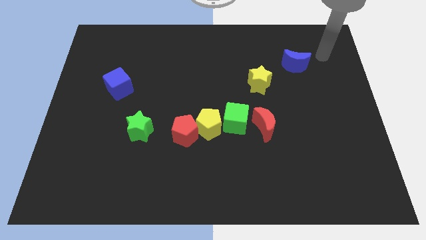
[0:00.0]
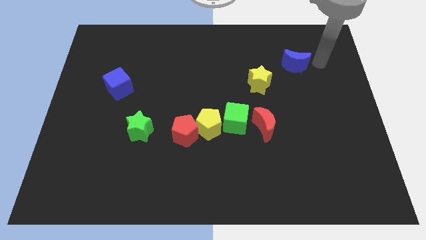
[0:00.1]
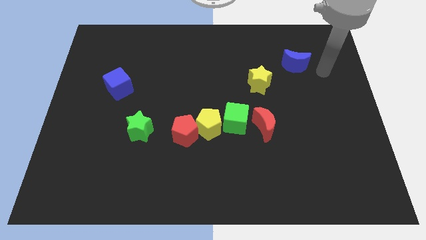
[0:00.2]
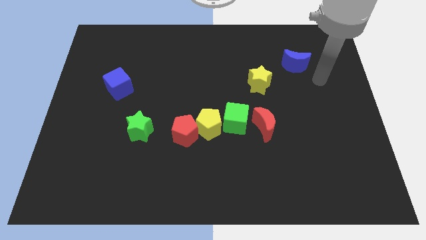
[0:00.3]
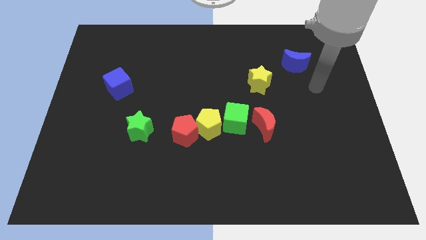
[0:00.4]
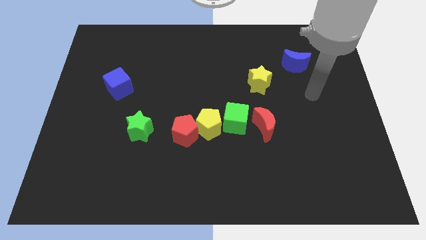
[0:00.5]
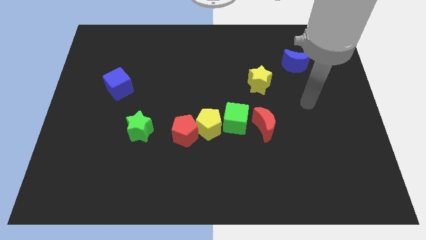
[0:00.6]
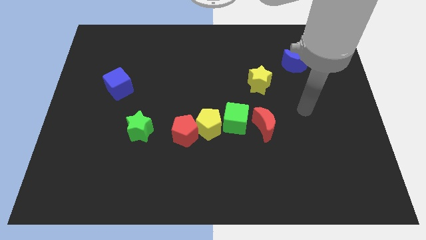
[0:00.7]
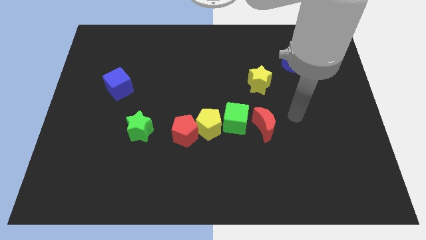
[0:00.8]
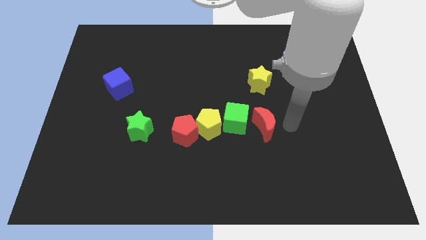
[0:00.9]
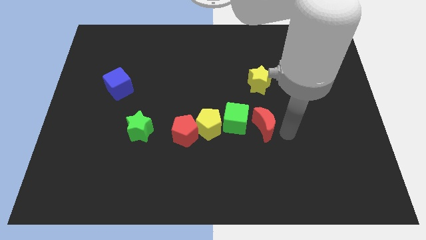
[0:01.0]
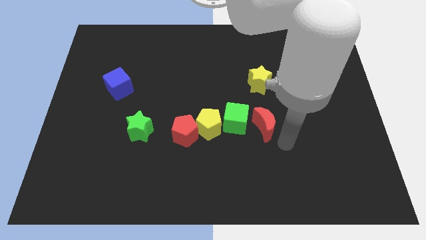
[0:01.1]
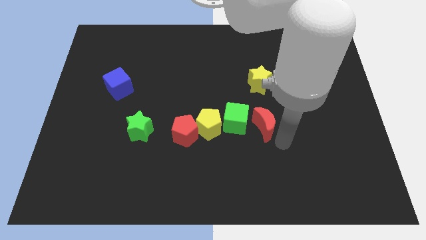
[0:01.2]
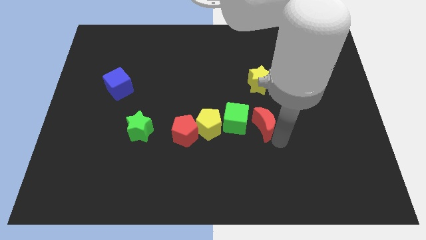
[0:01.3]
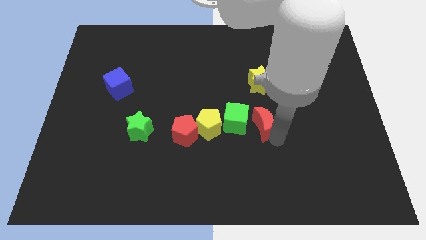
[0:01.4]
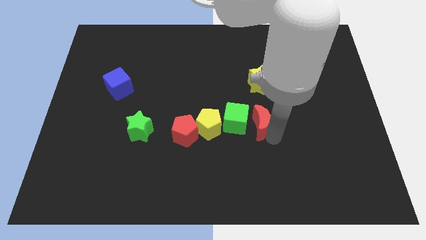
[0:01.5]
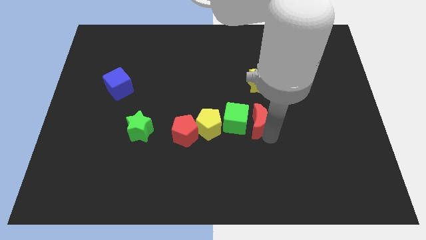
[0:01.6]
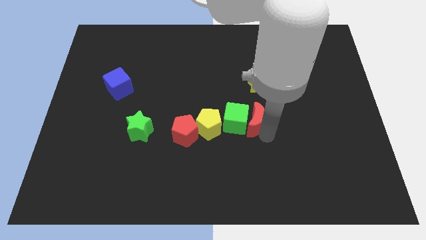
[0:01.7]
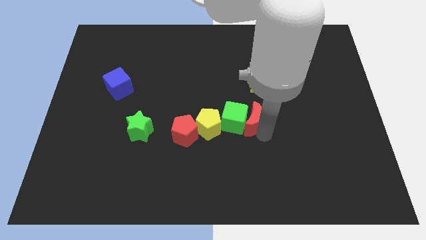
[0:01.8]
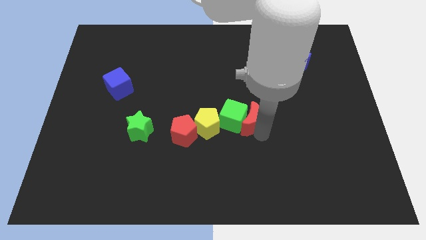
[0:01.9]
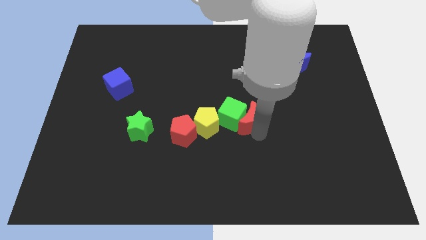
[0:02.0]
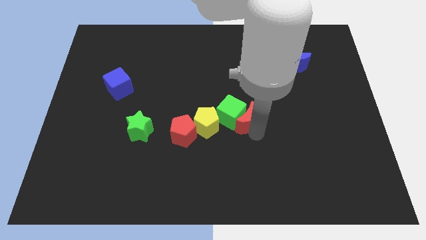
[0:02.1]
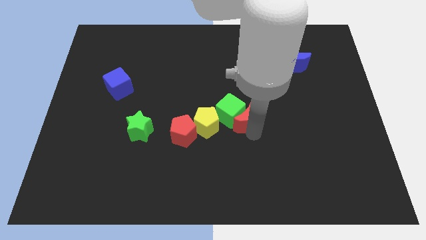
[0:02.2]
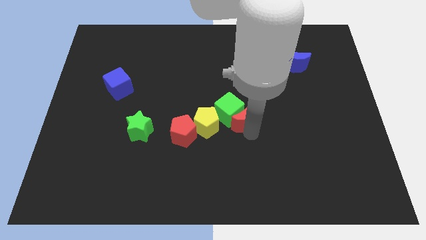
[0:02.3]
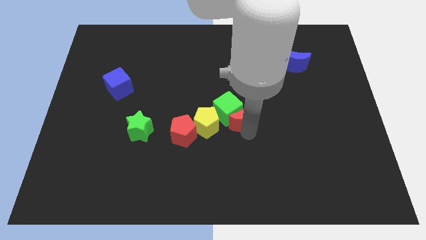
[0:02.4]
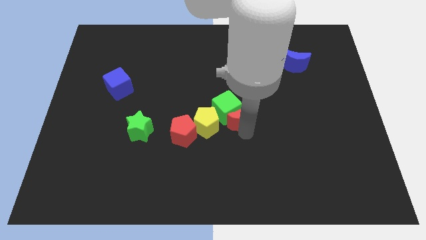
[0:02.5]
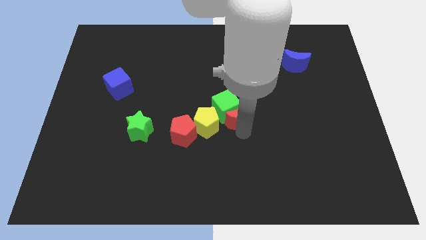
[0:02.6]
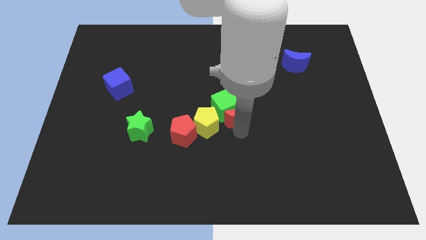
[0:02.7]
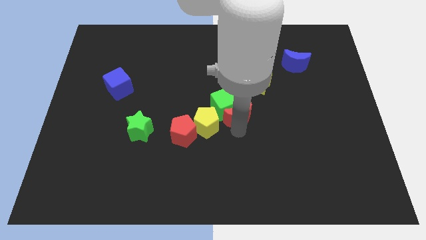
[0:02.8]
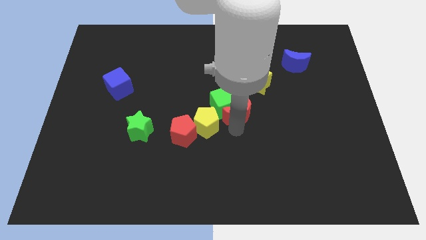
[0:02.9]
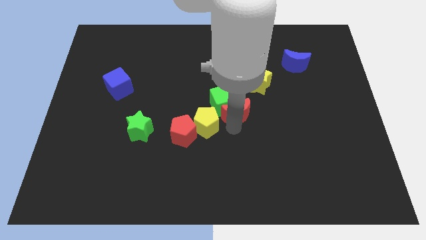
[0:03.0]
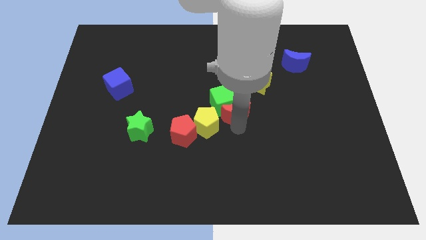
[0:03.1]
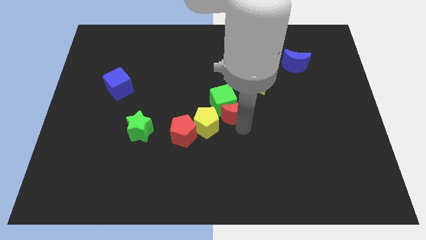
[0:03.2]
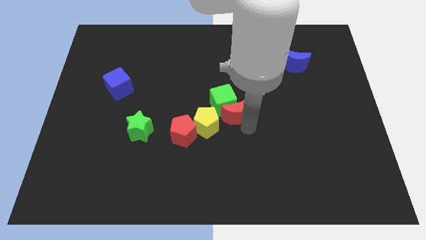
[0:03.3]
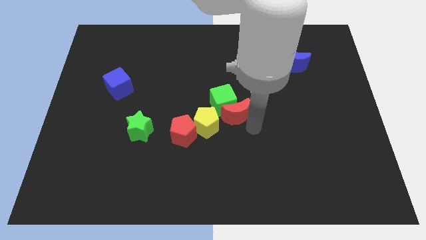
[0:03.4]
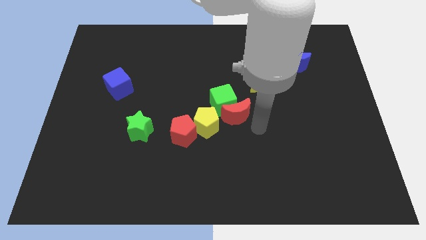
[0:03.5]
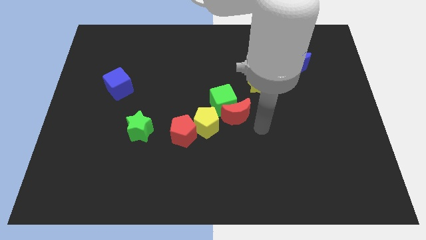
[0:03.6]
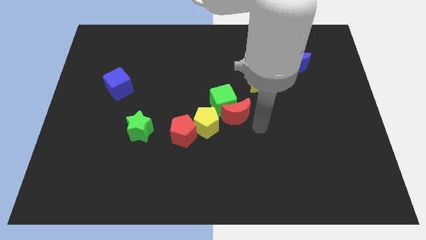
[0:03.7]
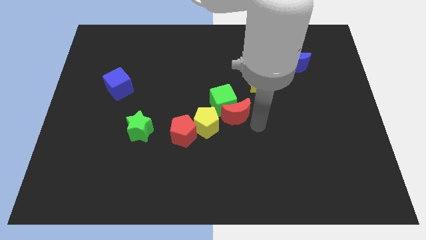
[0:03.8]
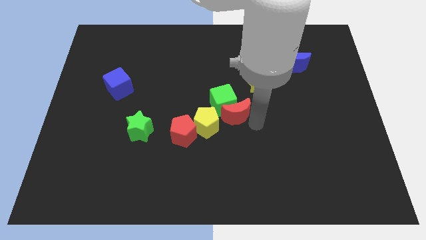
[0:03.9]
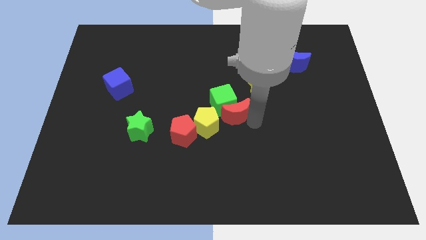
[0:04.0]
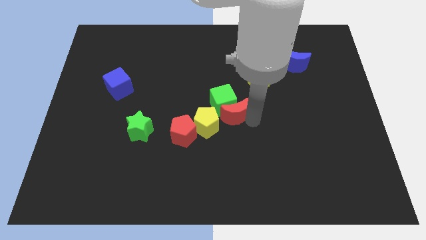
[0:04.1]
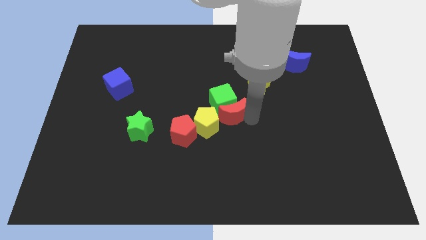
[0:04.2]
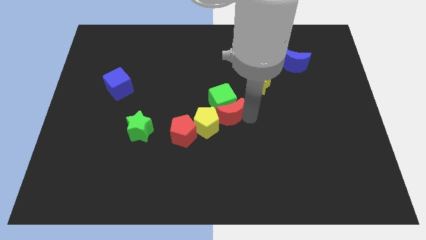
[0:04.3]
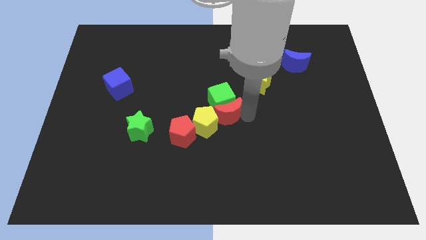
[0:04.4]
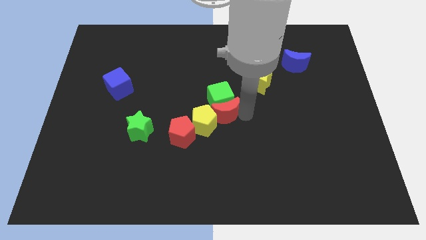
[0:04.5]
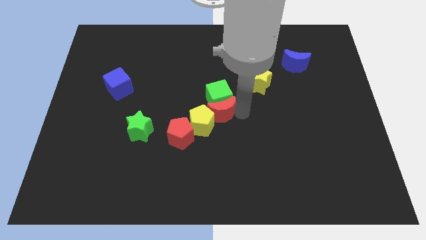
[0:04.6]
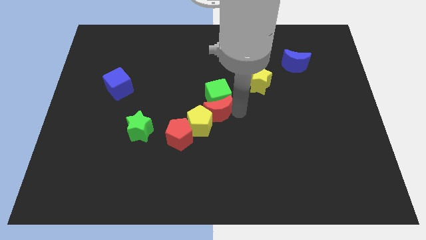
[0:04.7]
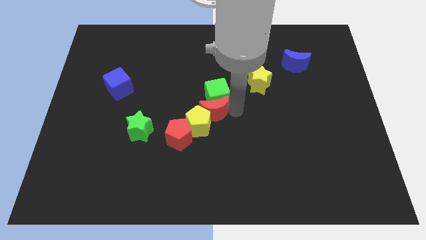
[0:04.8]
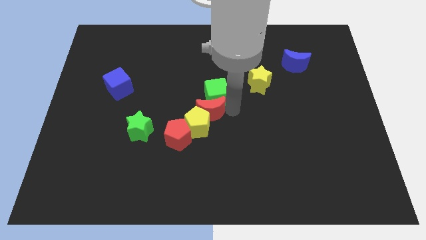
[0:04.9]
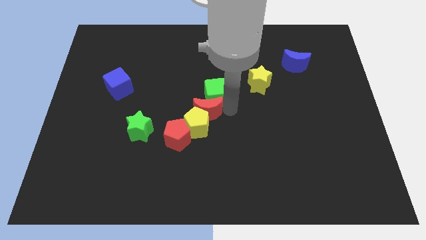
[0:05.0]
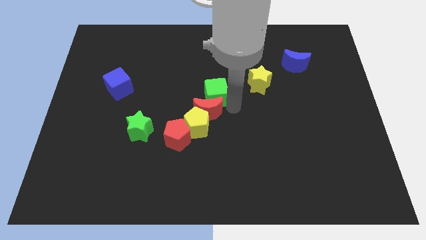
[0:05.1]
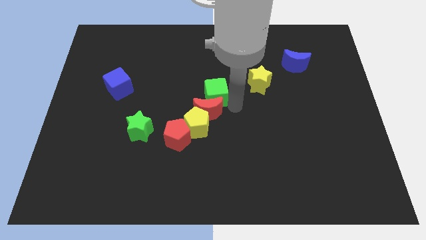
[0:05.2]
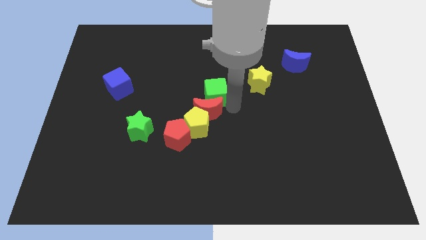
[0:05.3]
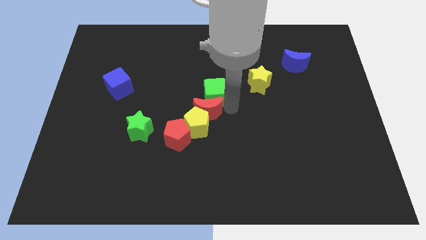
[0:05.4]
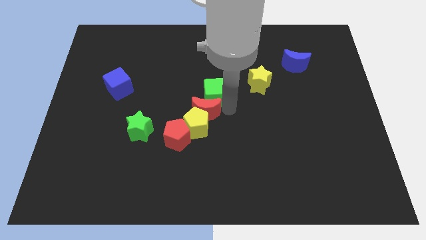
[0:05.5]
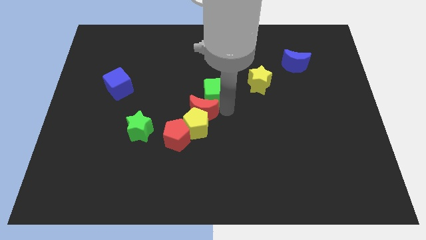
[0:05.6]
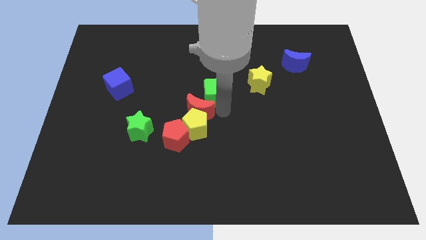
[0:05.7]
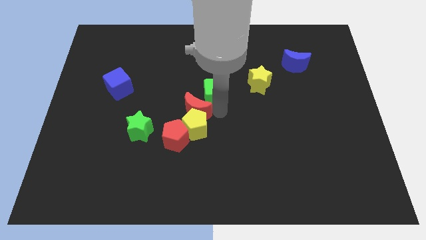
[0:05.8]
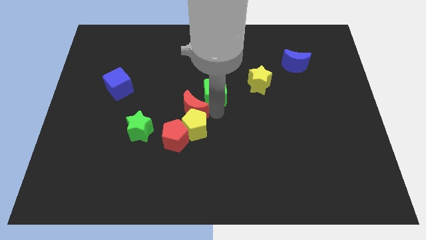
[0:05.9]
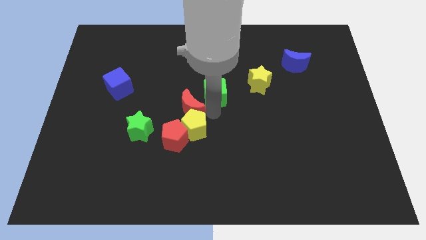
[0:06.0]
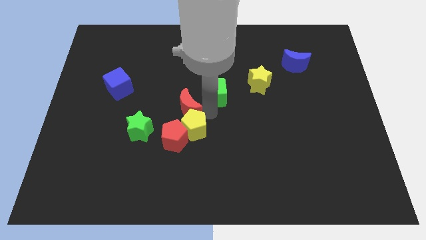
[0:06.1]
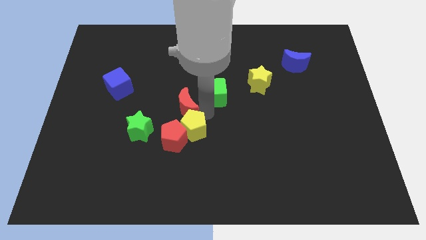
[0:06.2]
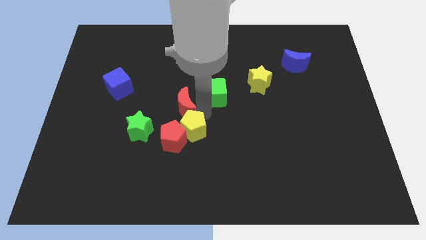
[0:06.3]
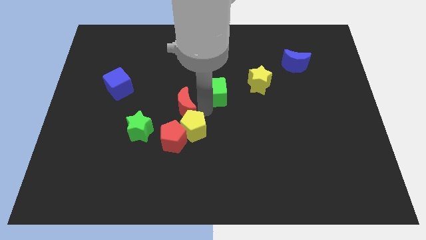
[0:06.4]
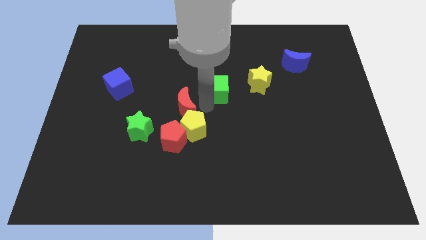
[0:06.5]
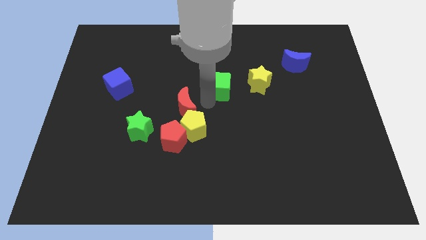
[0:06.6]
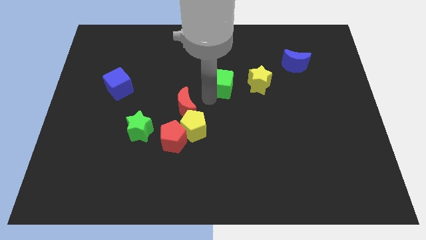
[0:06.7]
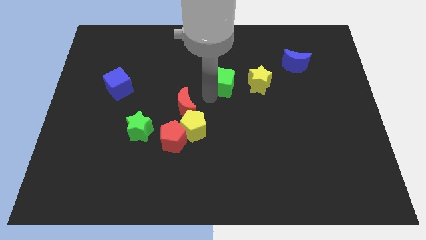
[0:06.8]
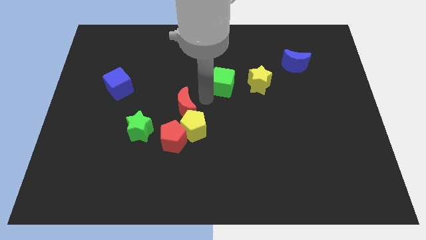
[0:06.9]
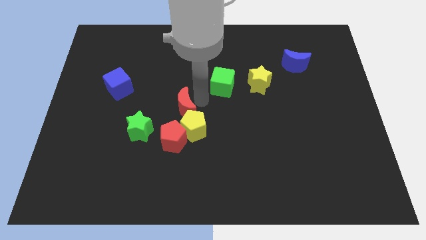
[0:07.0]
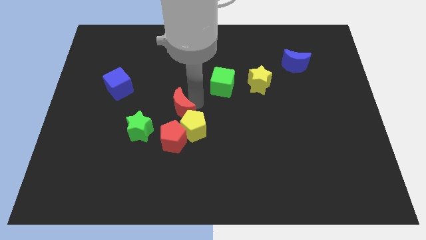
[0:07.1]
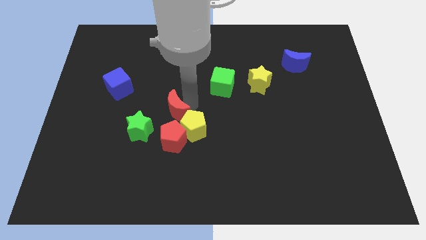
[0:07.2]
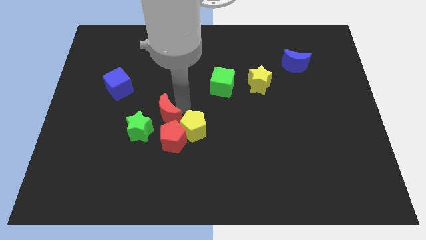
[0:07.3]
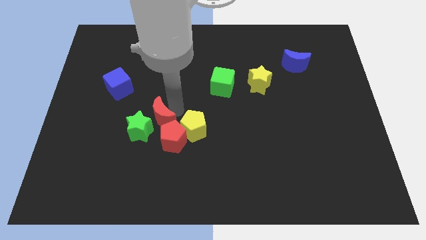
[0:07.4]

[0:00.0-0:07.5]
move the red moon towards the green star
